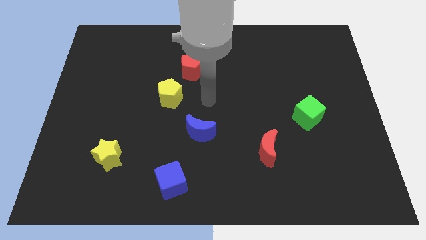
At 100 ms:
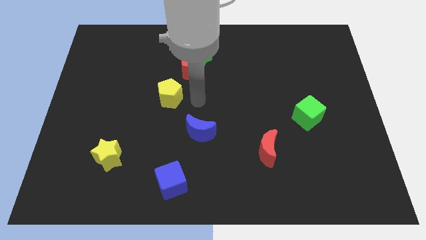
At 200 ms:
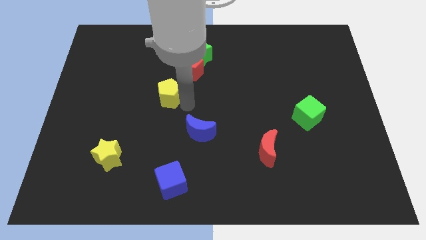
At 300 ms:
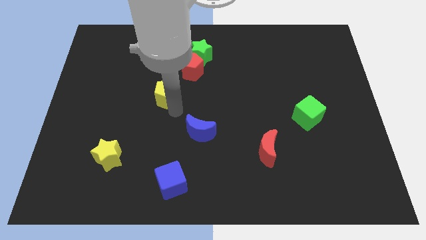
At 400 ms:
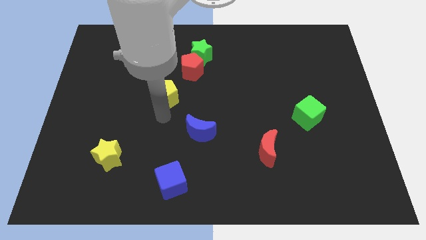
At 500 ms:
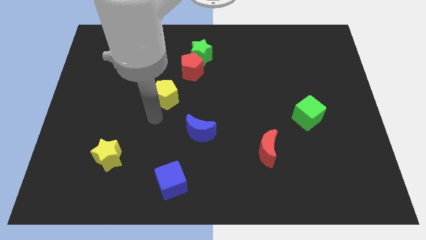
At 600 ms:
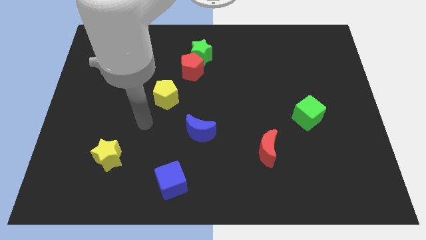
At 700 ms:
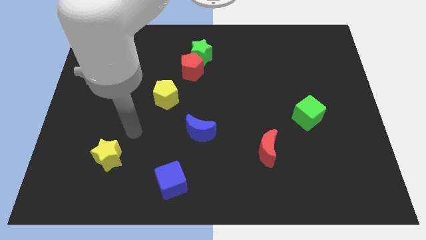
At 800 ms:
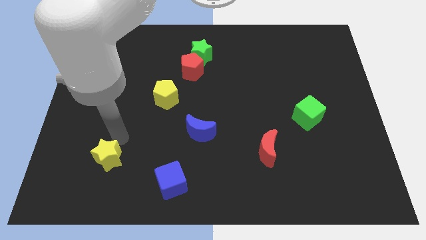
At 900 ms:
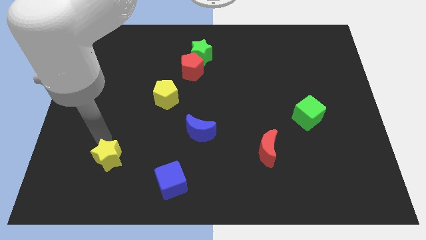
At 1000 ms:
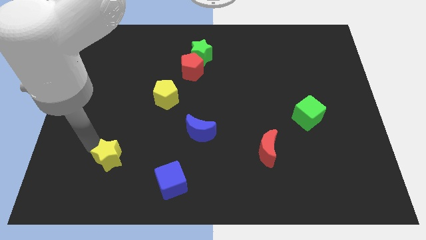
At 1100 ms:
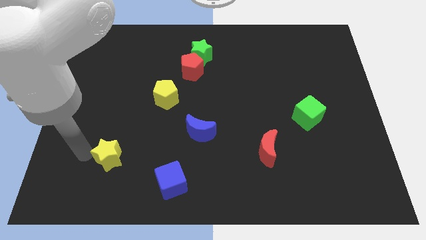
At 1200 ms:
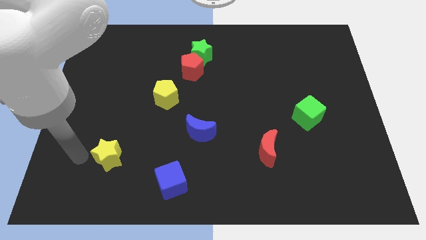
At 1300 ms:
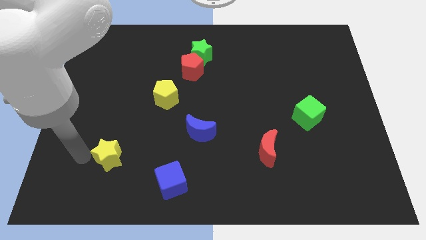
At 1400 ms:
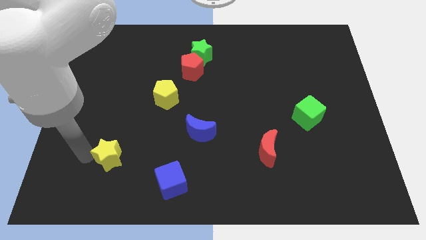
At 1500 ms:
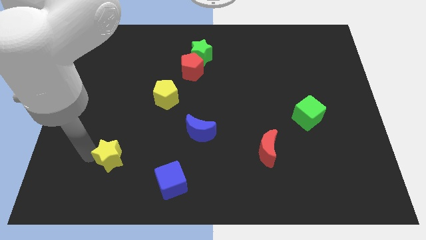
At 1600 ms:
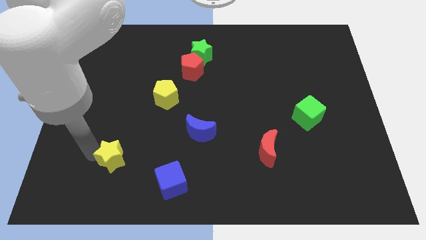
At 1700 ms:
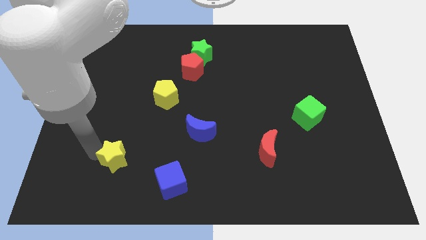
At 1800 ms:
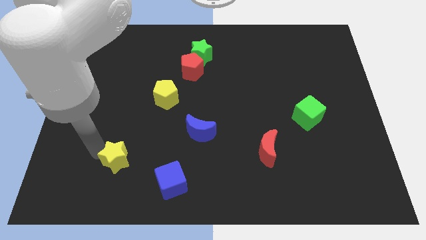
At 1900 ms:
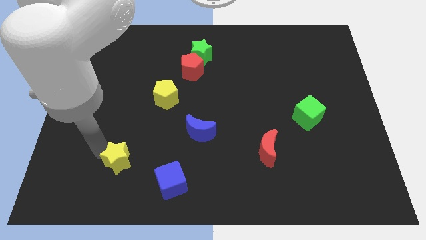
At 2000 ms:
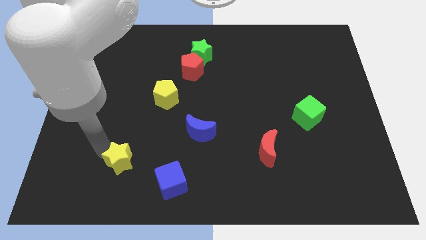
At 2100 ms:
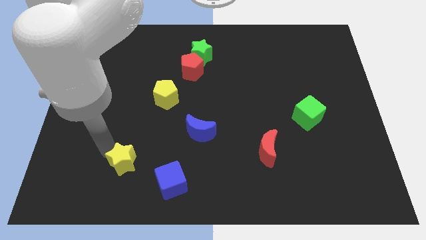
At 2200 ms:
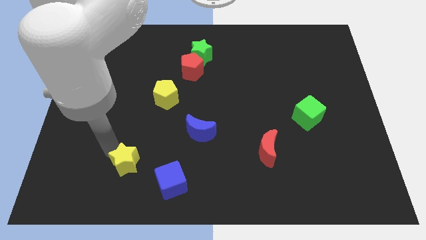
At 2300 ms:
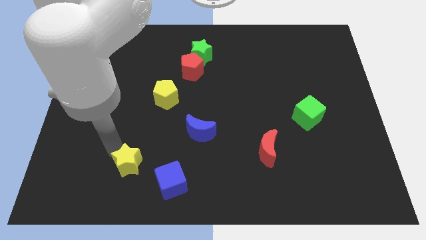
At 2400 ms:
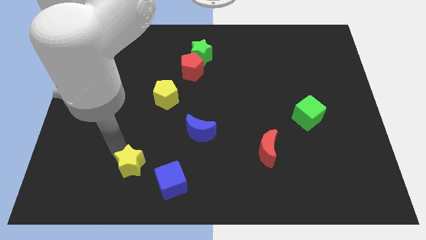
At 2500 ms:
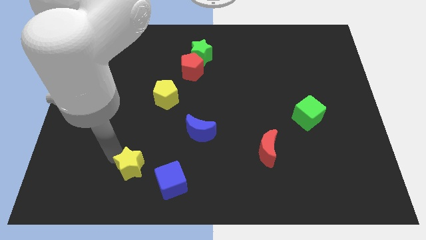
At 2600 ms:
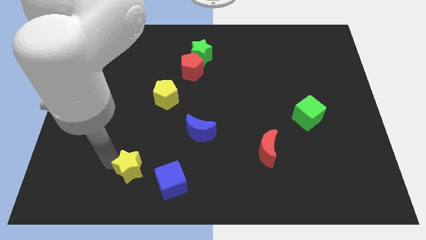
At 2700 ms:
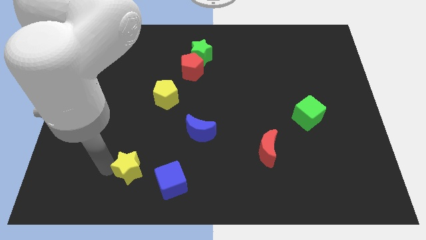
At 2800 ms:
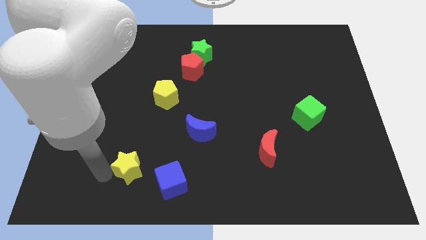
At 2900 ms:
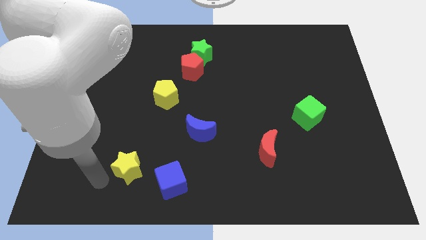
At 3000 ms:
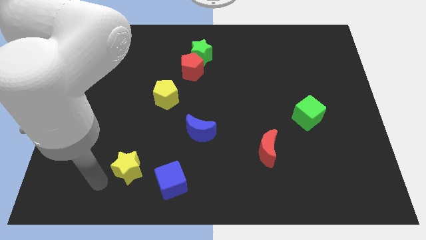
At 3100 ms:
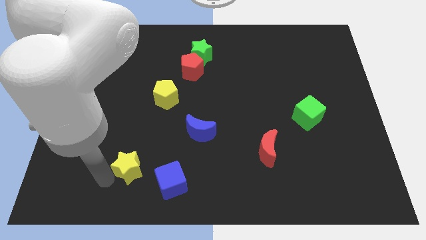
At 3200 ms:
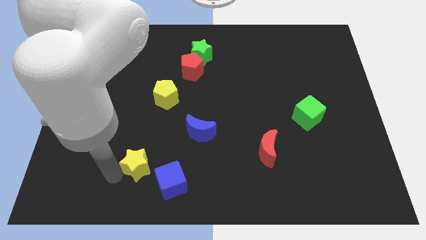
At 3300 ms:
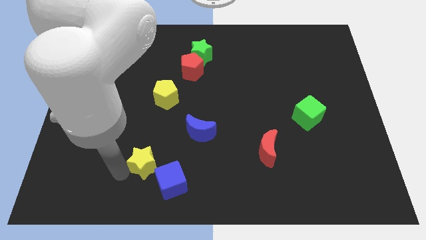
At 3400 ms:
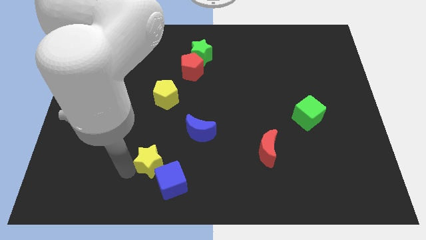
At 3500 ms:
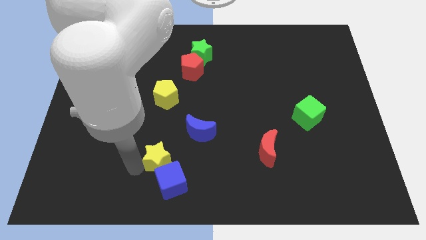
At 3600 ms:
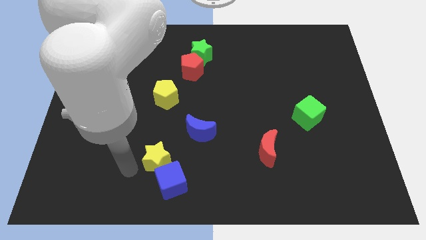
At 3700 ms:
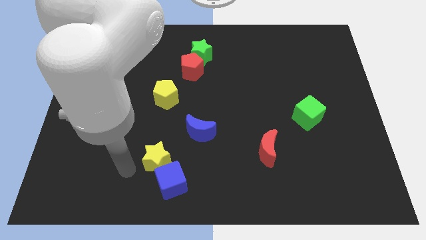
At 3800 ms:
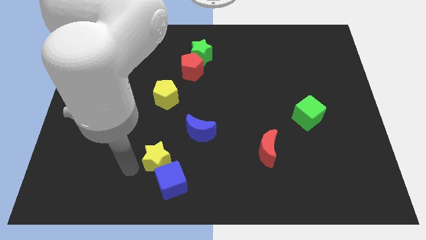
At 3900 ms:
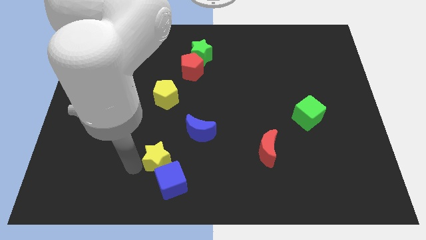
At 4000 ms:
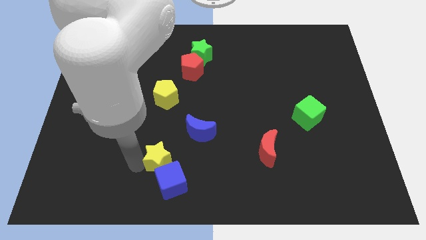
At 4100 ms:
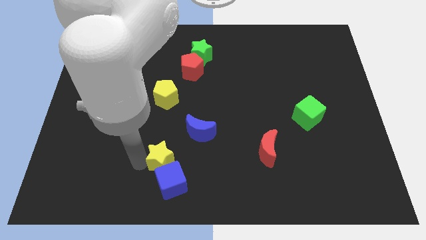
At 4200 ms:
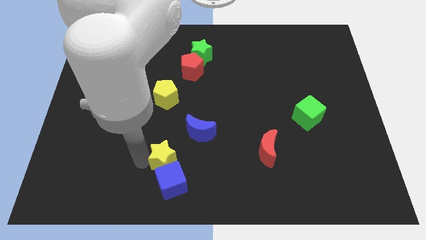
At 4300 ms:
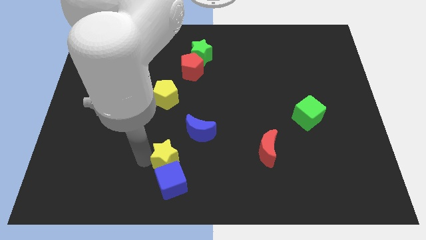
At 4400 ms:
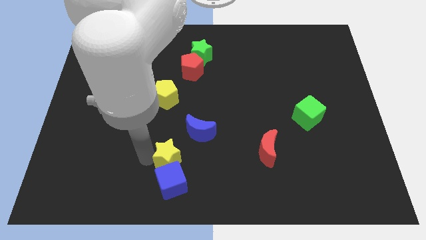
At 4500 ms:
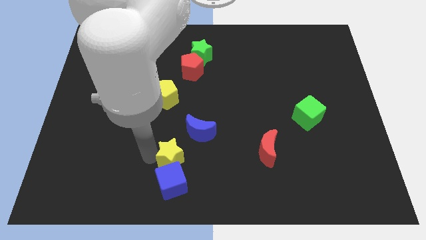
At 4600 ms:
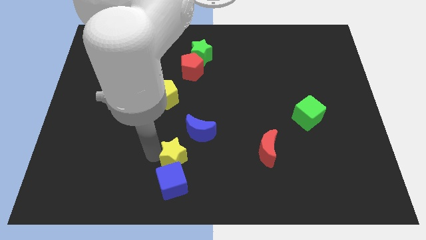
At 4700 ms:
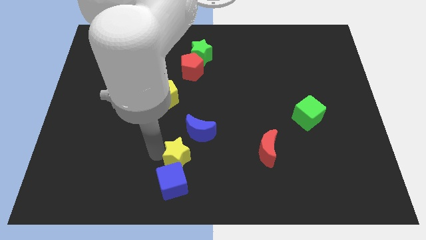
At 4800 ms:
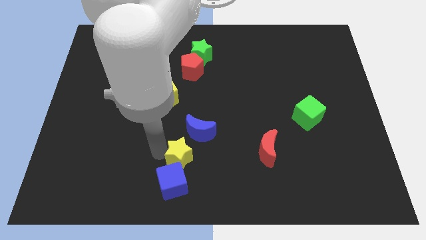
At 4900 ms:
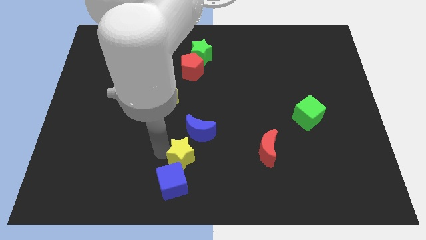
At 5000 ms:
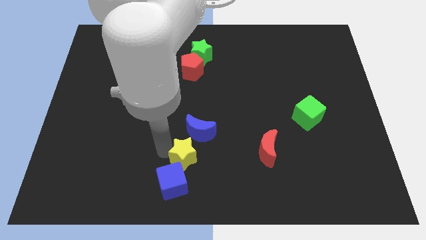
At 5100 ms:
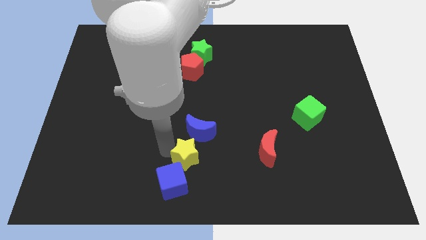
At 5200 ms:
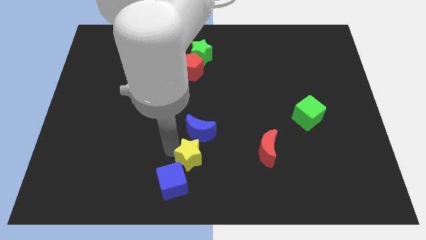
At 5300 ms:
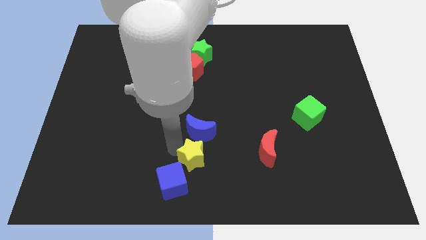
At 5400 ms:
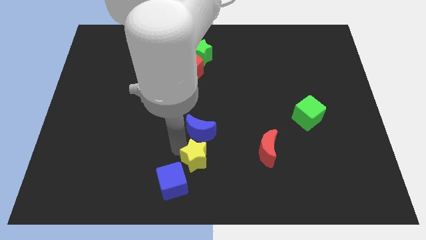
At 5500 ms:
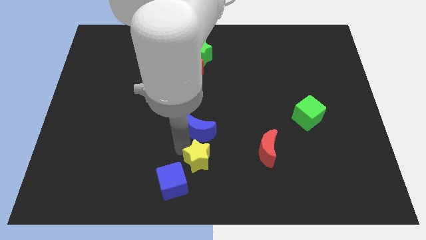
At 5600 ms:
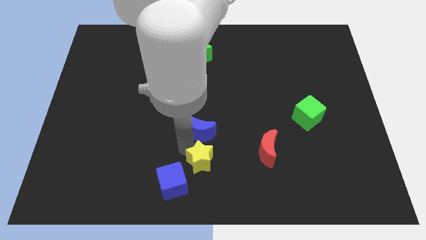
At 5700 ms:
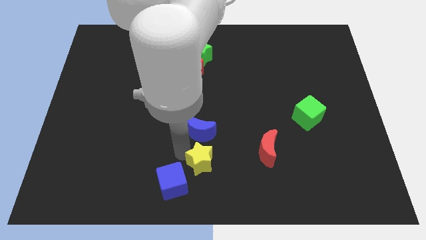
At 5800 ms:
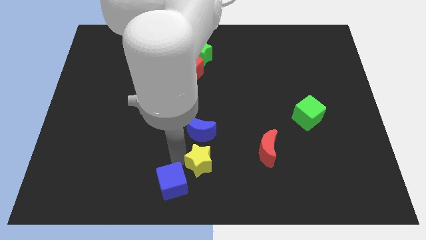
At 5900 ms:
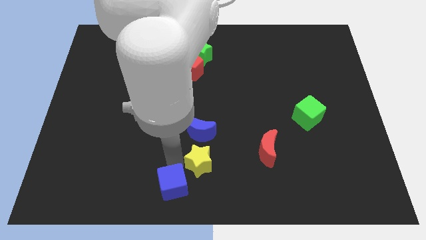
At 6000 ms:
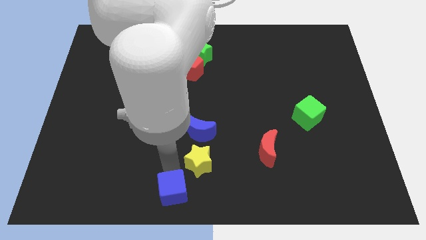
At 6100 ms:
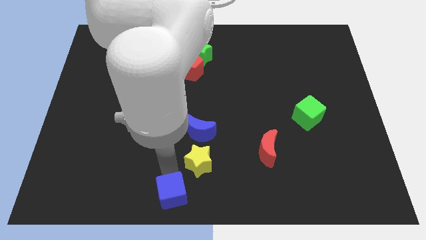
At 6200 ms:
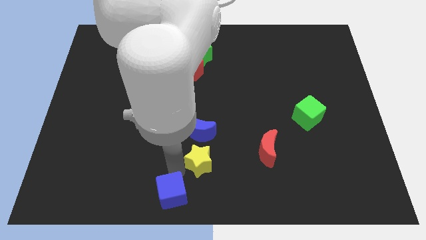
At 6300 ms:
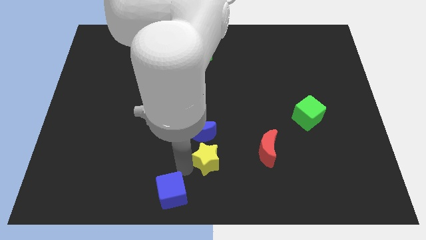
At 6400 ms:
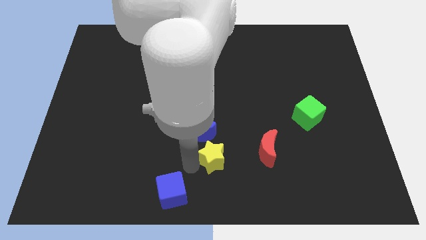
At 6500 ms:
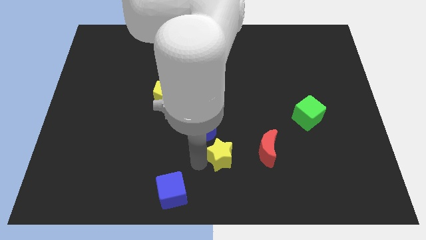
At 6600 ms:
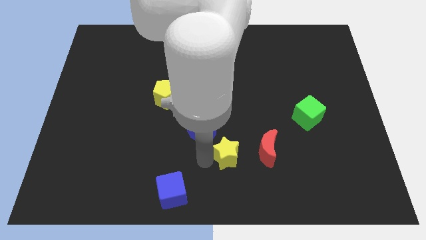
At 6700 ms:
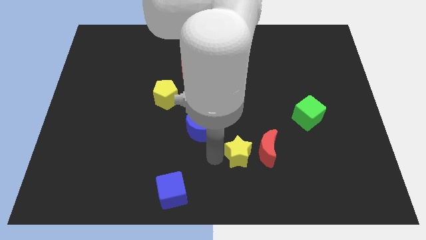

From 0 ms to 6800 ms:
slide the yellow star next to the red moon
